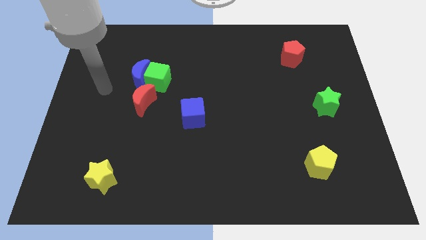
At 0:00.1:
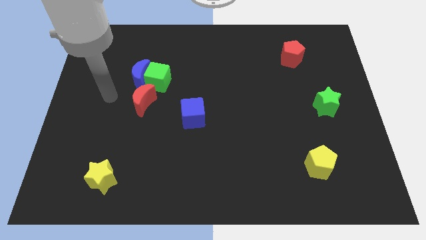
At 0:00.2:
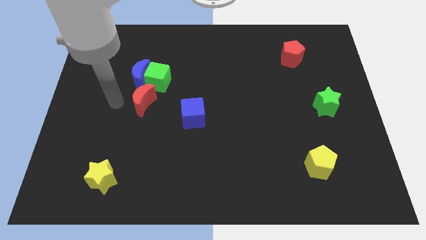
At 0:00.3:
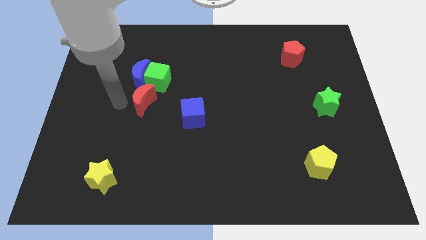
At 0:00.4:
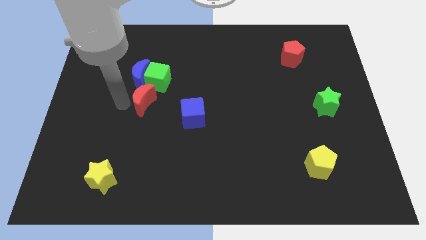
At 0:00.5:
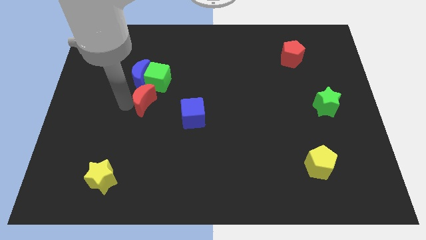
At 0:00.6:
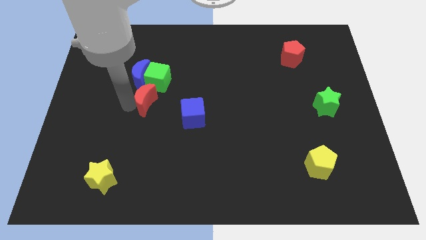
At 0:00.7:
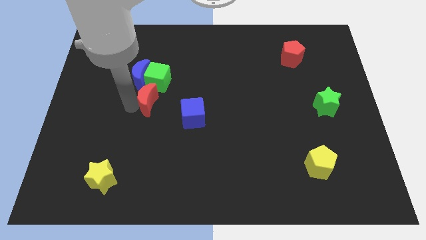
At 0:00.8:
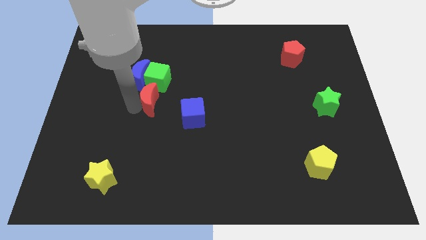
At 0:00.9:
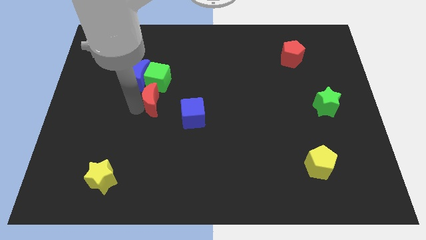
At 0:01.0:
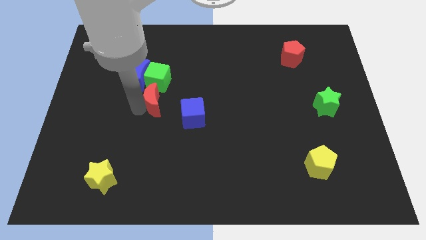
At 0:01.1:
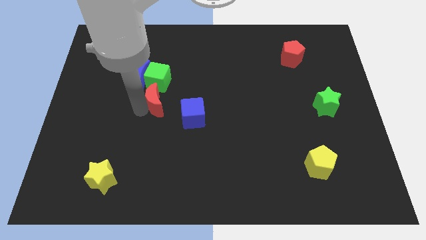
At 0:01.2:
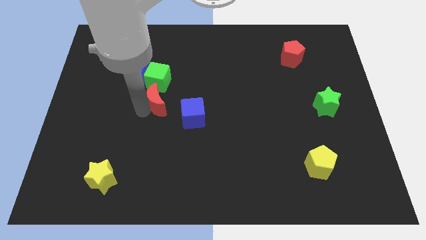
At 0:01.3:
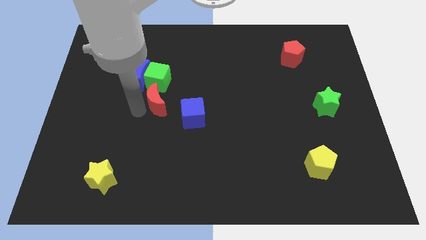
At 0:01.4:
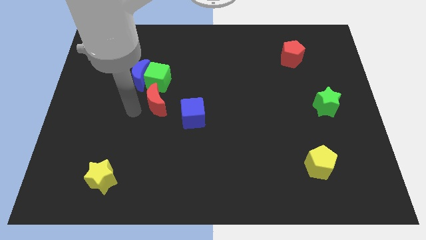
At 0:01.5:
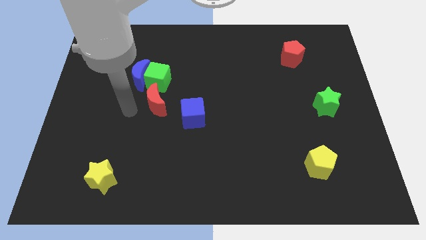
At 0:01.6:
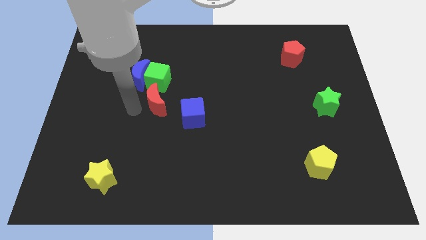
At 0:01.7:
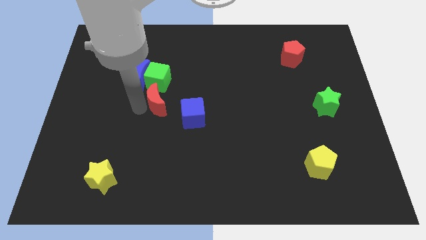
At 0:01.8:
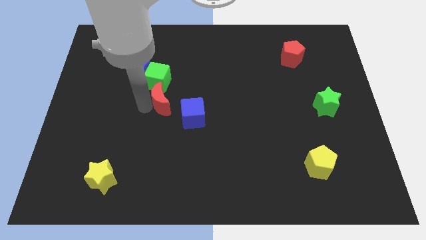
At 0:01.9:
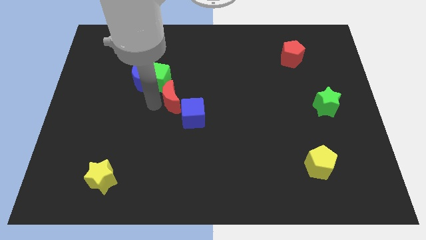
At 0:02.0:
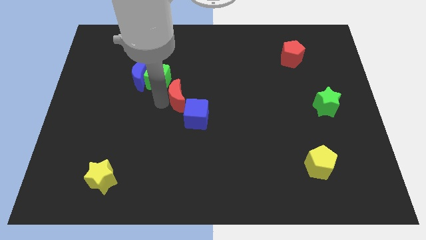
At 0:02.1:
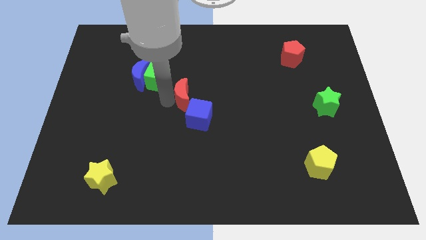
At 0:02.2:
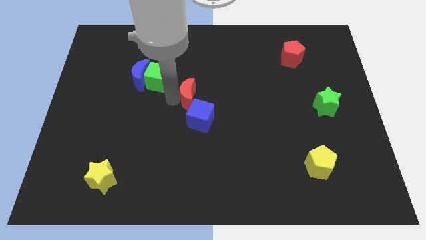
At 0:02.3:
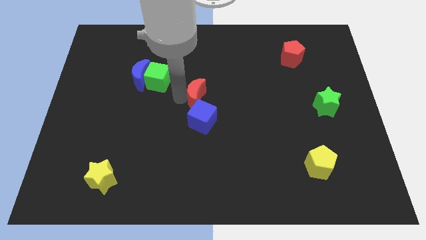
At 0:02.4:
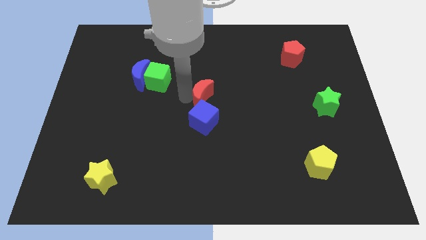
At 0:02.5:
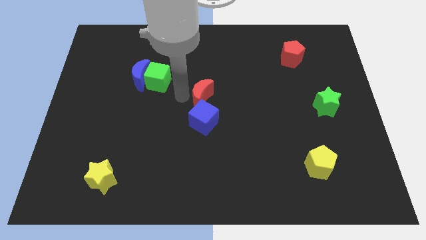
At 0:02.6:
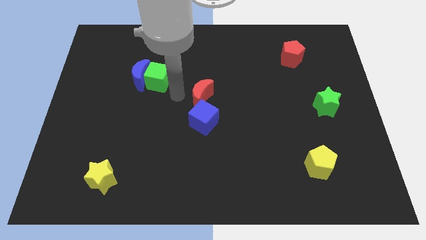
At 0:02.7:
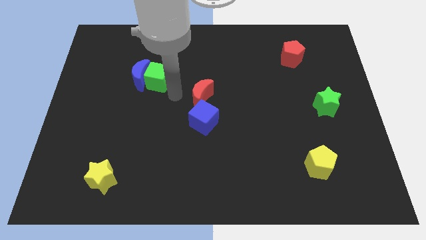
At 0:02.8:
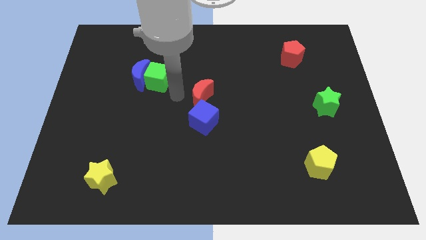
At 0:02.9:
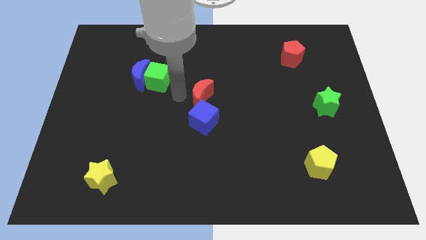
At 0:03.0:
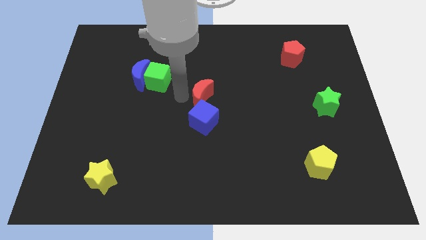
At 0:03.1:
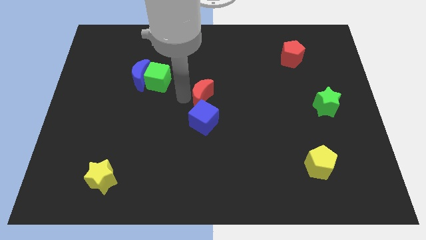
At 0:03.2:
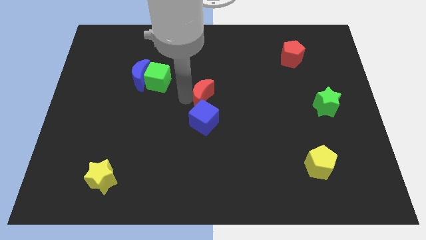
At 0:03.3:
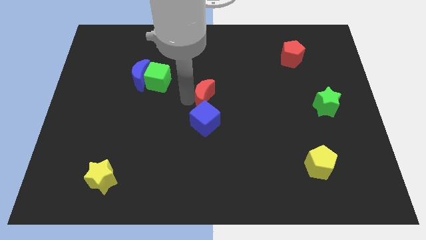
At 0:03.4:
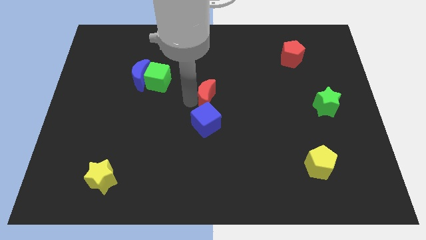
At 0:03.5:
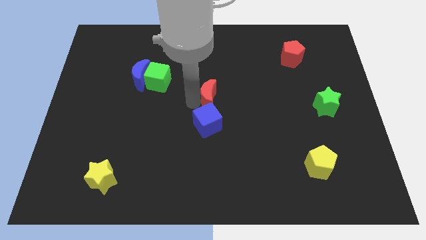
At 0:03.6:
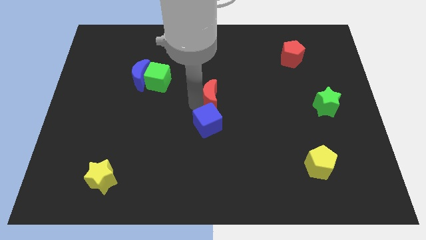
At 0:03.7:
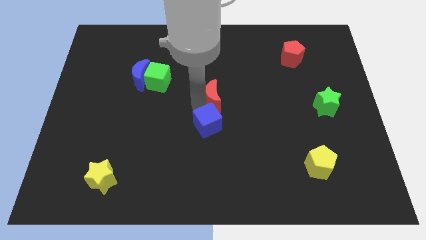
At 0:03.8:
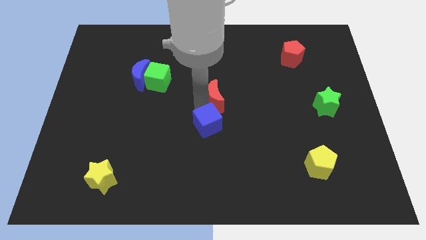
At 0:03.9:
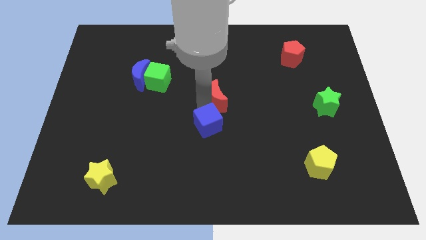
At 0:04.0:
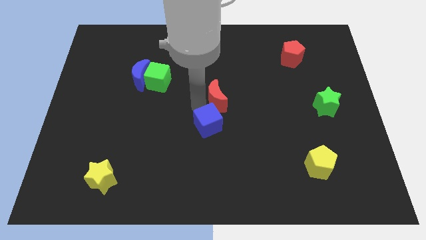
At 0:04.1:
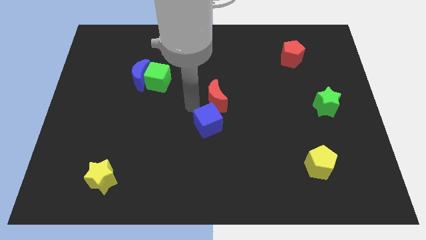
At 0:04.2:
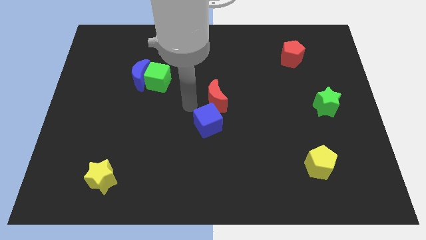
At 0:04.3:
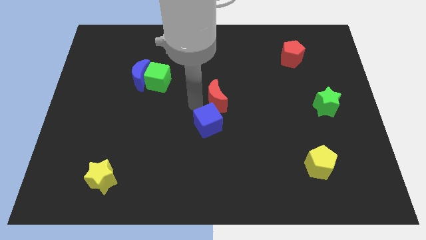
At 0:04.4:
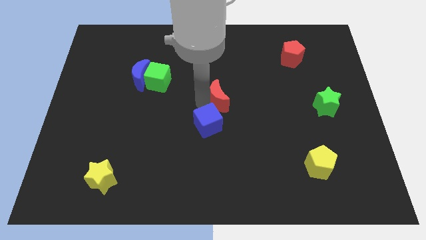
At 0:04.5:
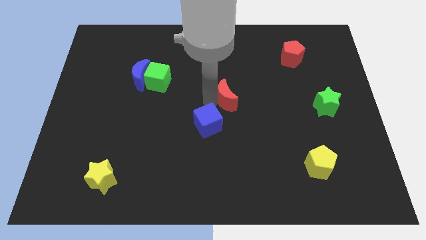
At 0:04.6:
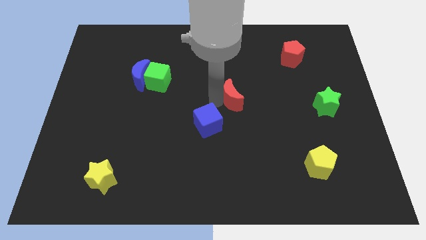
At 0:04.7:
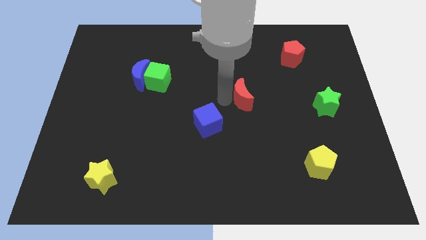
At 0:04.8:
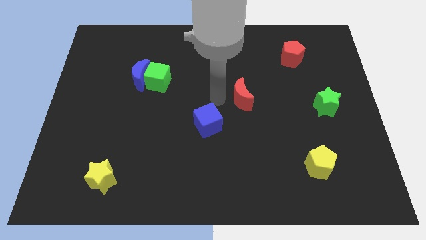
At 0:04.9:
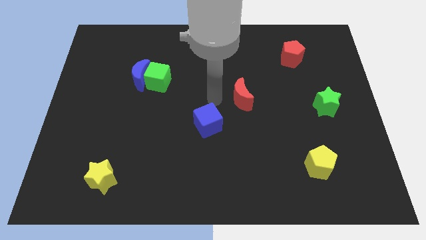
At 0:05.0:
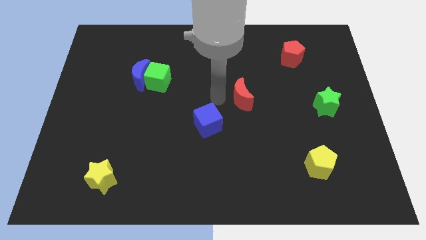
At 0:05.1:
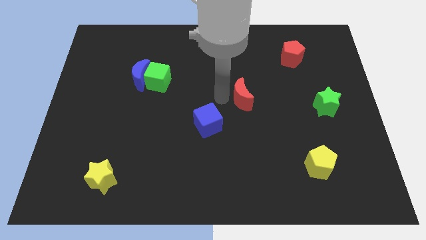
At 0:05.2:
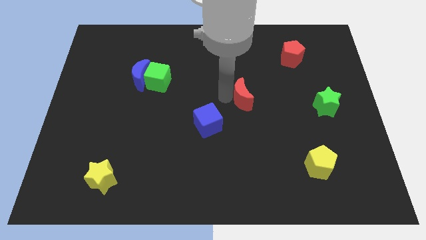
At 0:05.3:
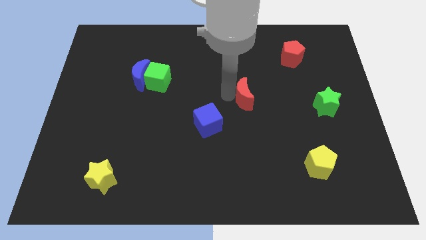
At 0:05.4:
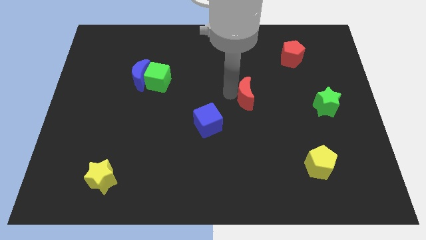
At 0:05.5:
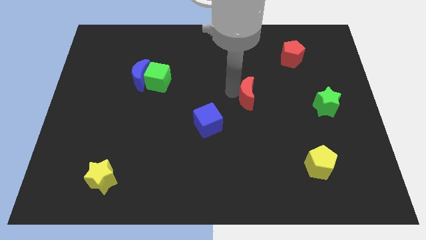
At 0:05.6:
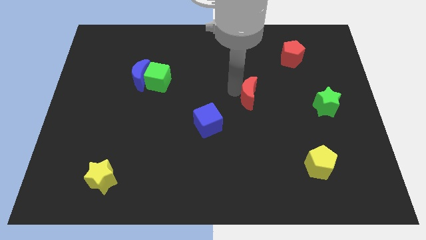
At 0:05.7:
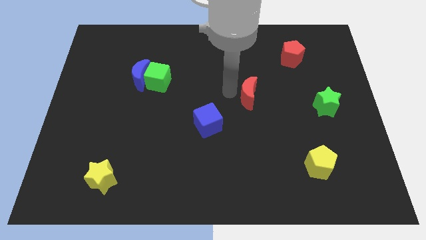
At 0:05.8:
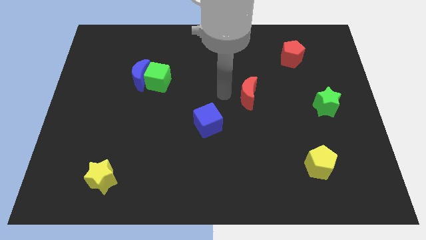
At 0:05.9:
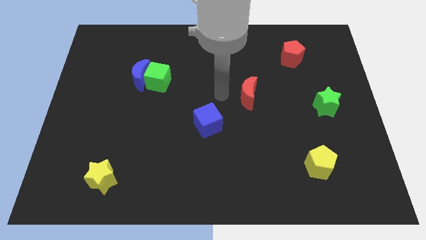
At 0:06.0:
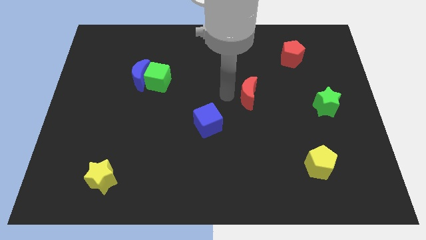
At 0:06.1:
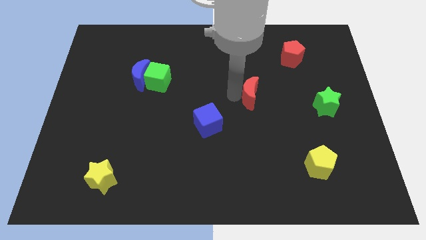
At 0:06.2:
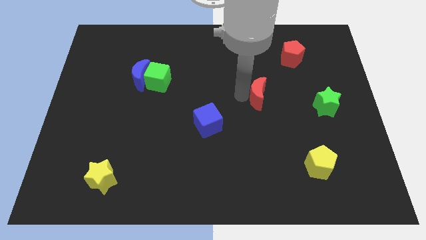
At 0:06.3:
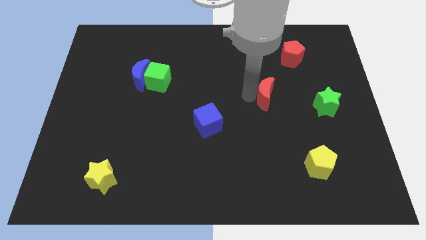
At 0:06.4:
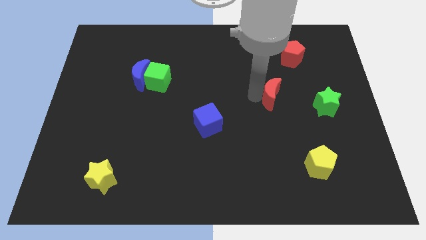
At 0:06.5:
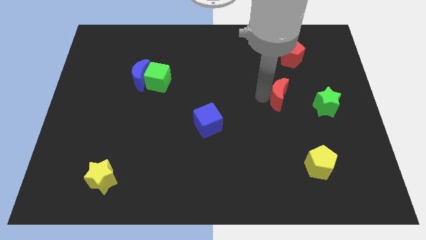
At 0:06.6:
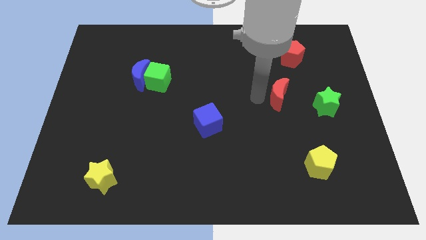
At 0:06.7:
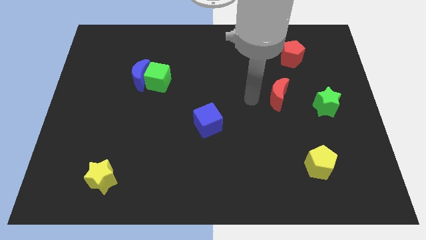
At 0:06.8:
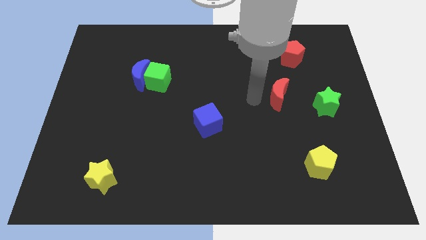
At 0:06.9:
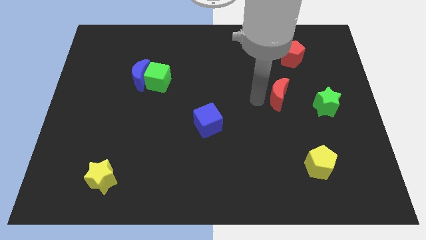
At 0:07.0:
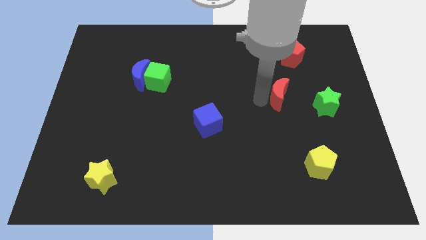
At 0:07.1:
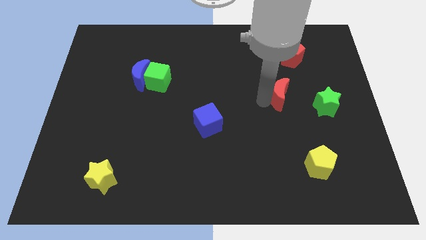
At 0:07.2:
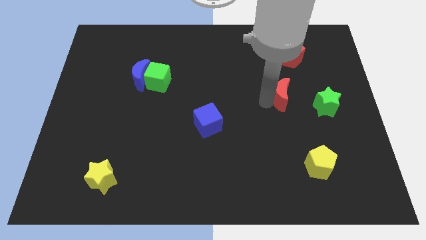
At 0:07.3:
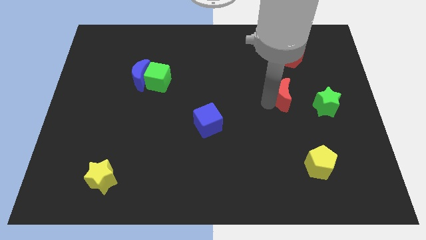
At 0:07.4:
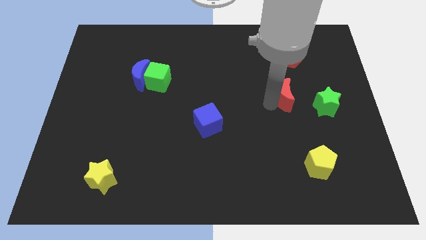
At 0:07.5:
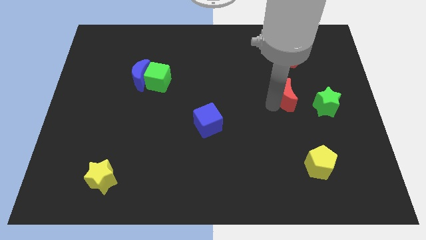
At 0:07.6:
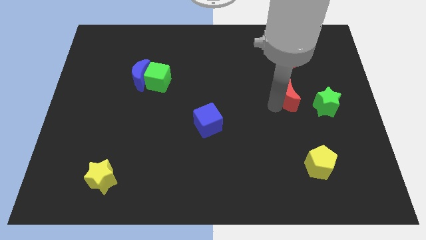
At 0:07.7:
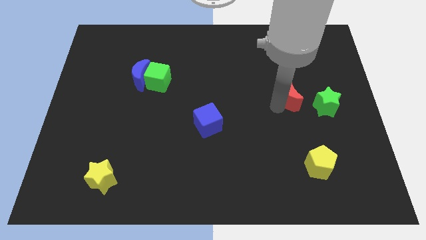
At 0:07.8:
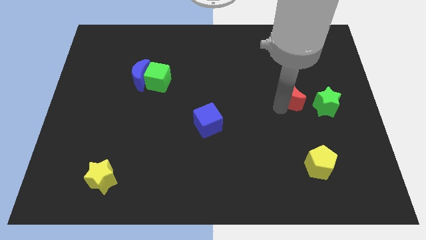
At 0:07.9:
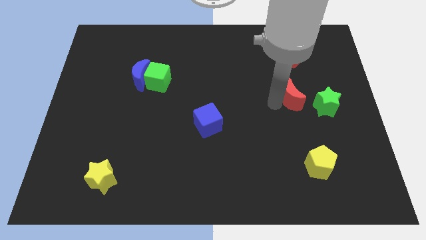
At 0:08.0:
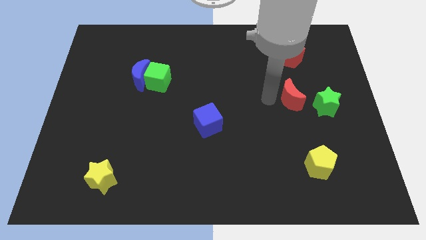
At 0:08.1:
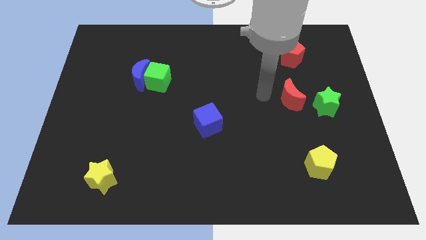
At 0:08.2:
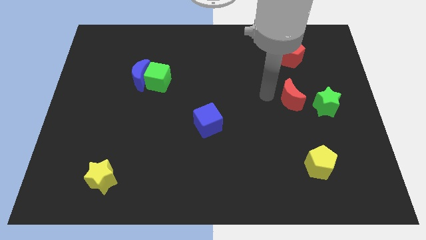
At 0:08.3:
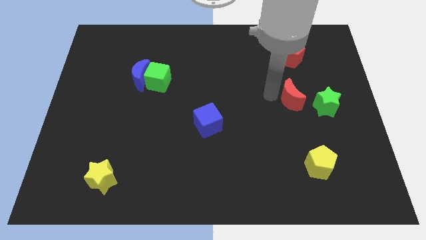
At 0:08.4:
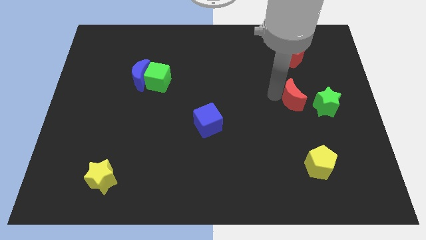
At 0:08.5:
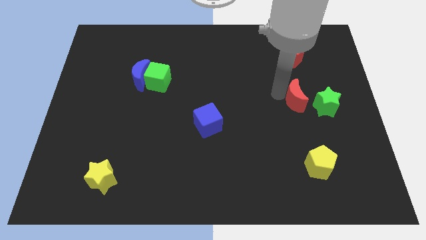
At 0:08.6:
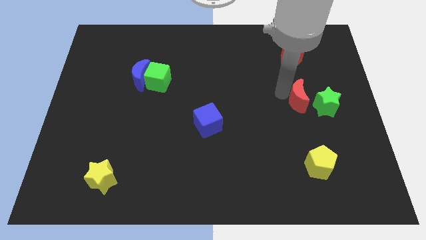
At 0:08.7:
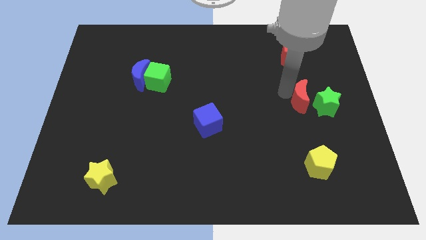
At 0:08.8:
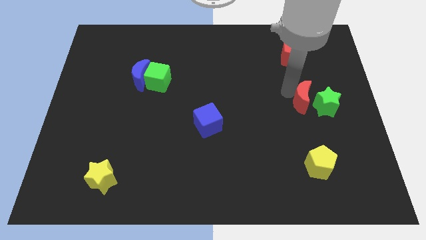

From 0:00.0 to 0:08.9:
put the red moon towards the green star
